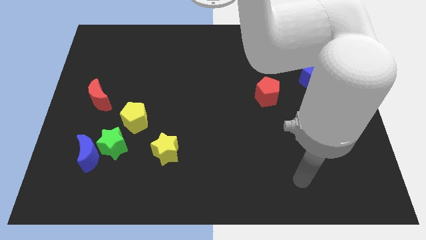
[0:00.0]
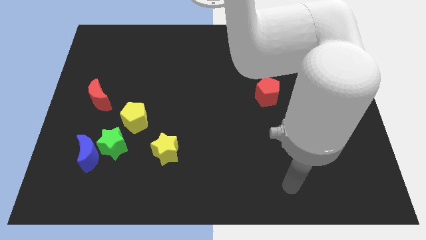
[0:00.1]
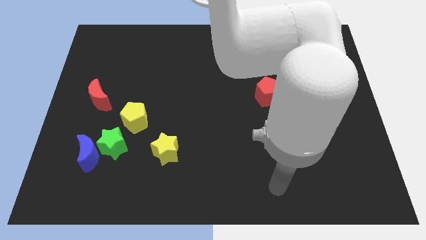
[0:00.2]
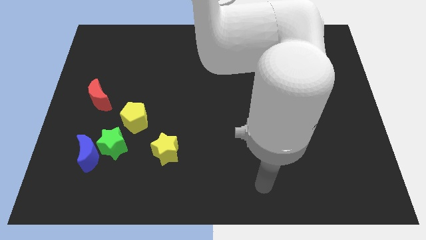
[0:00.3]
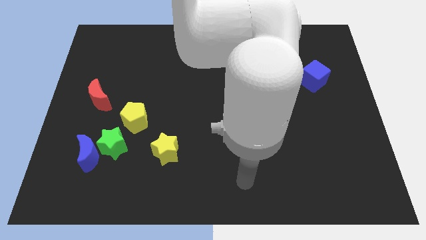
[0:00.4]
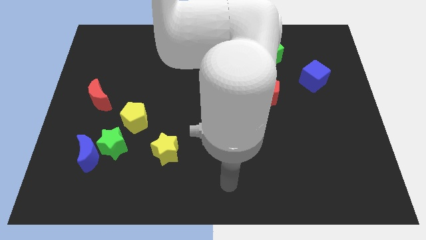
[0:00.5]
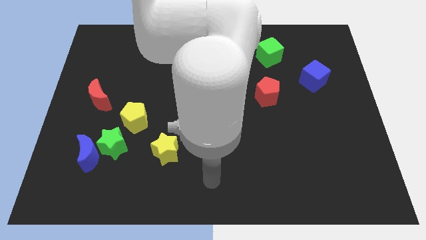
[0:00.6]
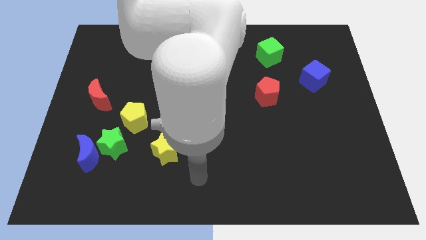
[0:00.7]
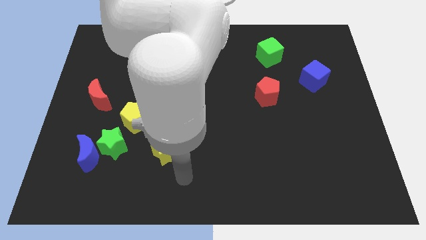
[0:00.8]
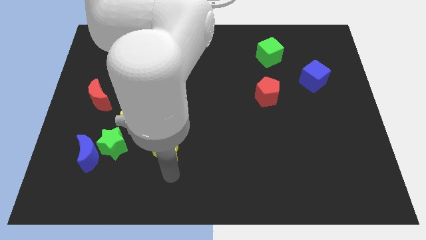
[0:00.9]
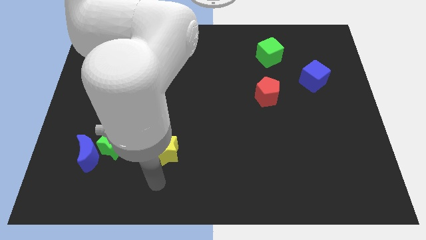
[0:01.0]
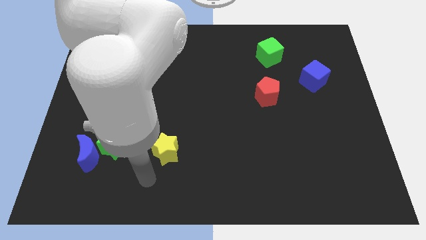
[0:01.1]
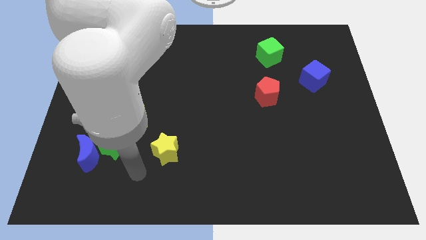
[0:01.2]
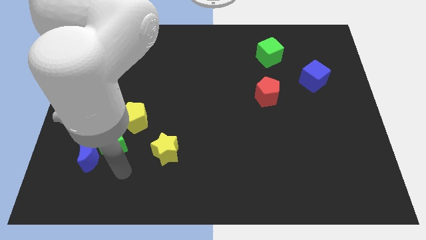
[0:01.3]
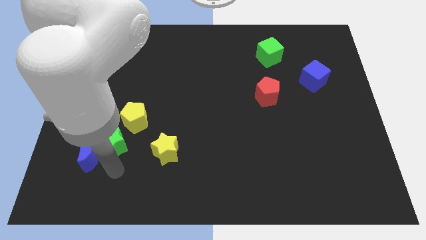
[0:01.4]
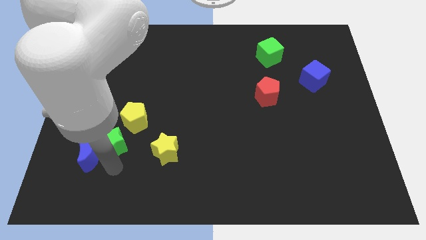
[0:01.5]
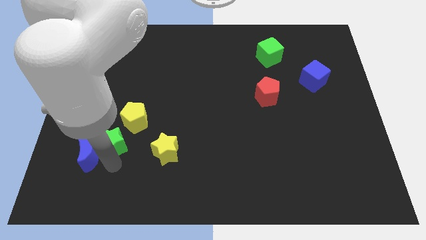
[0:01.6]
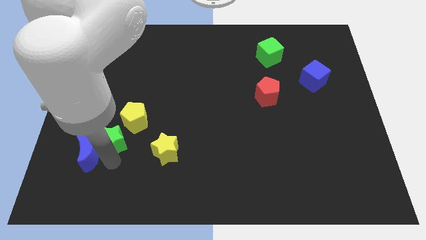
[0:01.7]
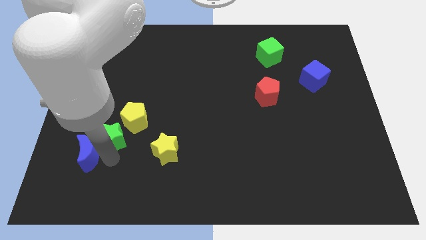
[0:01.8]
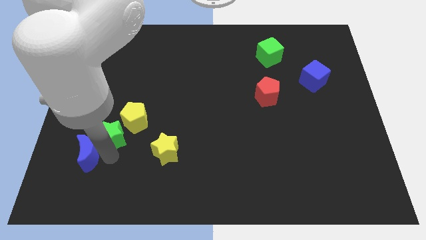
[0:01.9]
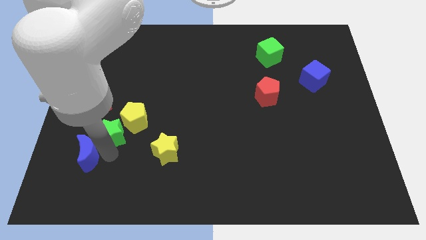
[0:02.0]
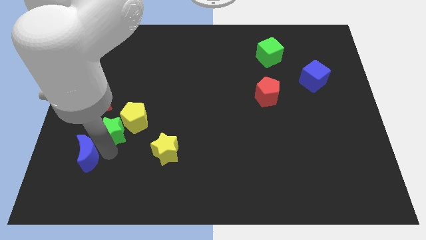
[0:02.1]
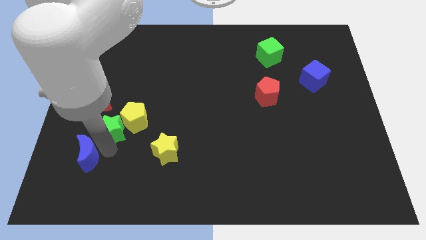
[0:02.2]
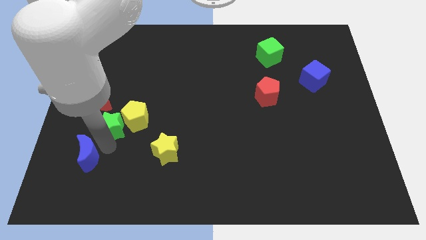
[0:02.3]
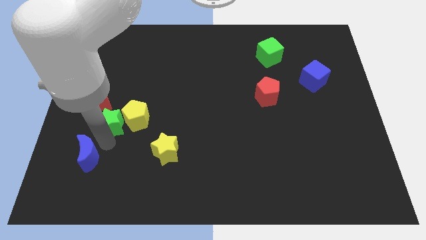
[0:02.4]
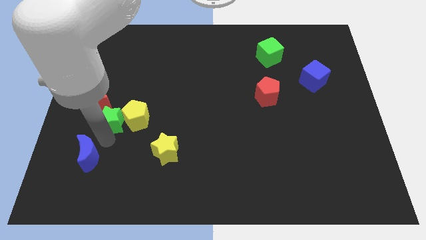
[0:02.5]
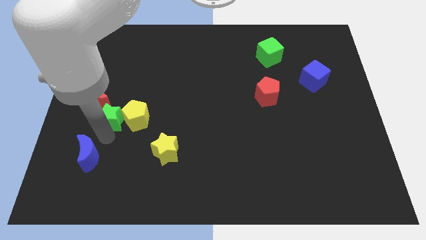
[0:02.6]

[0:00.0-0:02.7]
slightly move the green star upwards

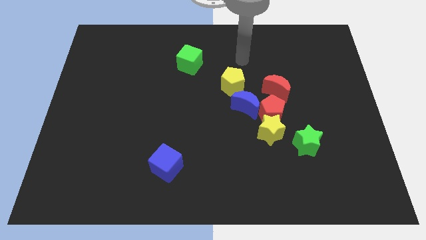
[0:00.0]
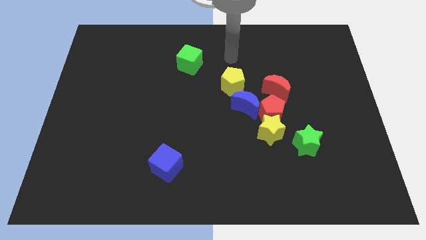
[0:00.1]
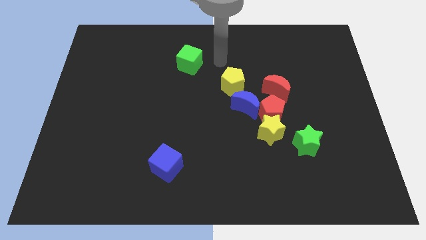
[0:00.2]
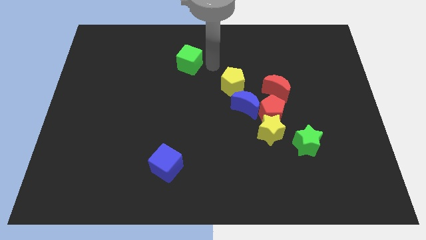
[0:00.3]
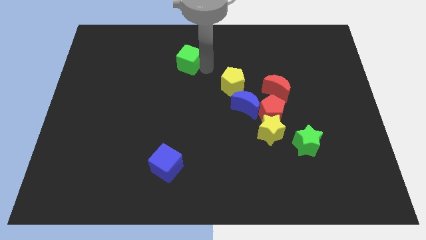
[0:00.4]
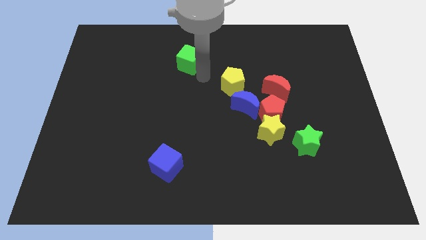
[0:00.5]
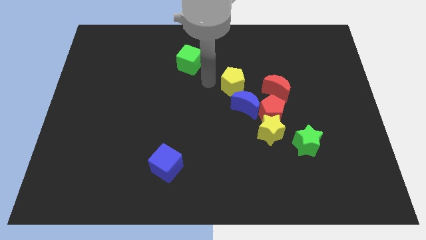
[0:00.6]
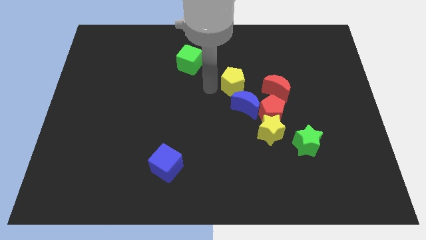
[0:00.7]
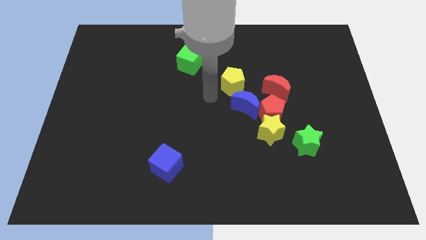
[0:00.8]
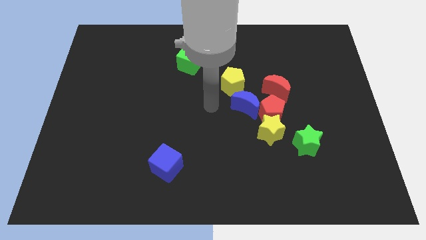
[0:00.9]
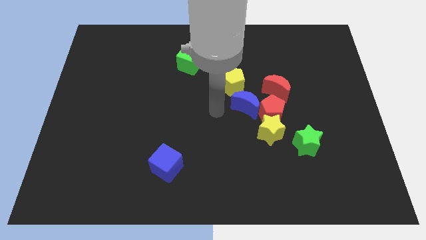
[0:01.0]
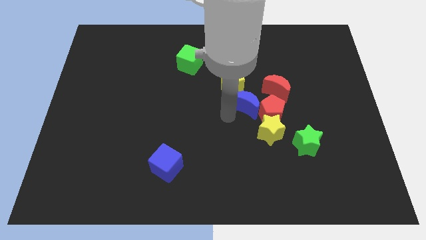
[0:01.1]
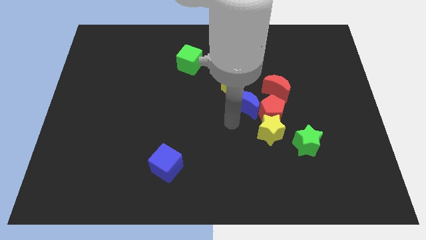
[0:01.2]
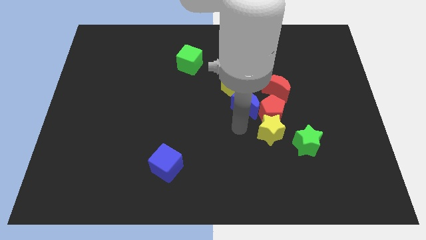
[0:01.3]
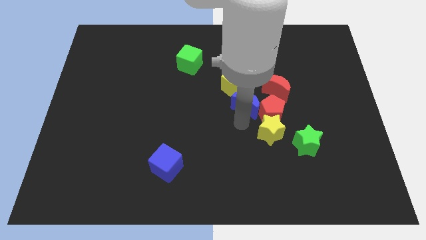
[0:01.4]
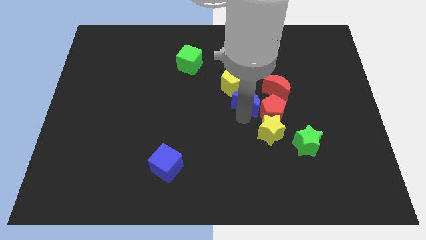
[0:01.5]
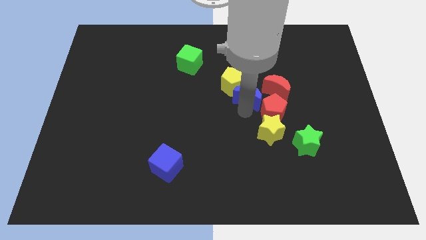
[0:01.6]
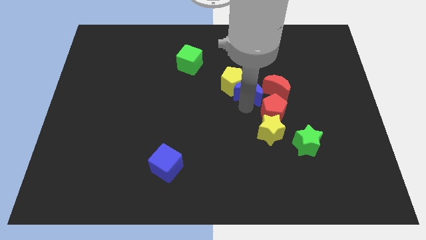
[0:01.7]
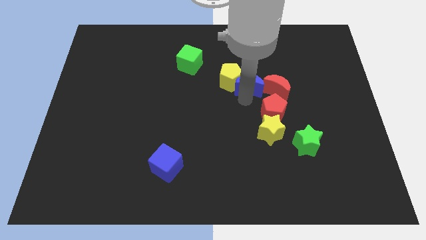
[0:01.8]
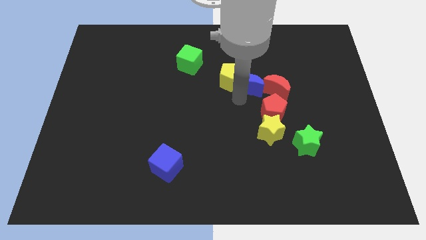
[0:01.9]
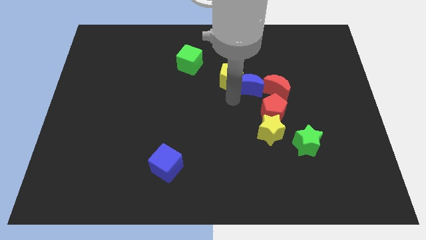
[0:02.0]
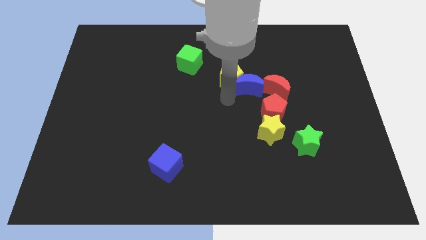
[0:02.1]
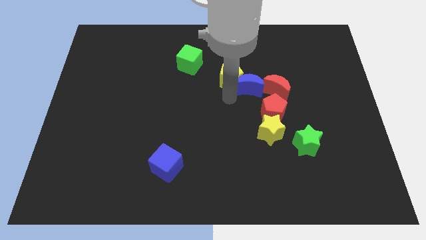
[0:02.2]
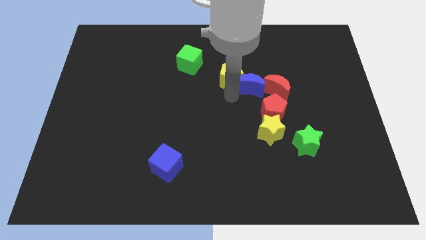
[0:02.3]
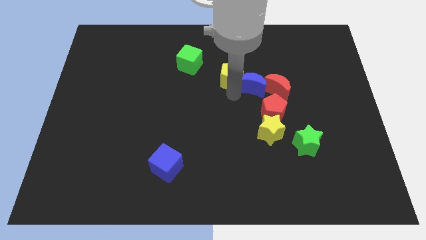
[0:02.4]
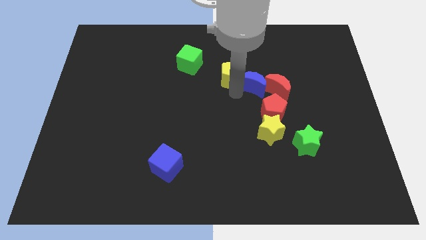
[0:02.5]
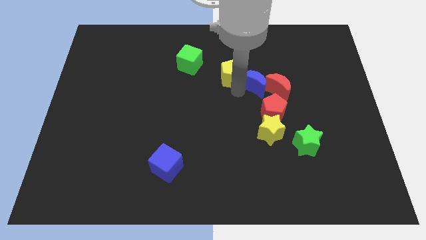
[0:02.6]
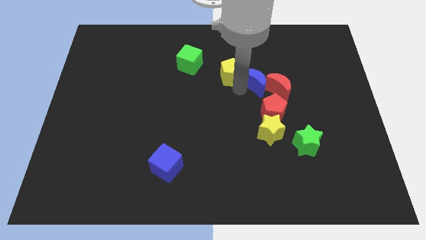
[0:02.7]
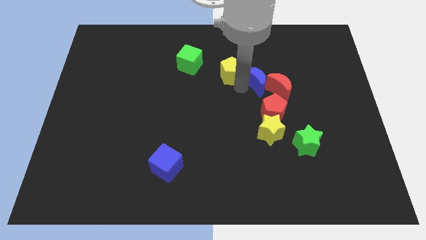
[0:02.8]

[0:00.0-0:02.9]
move the blue moon upwards and then right a little bit

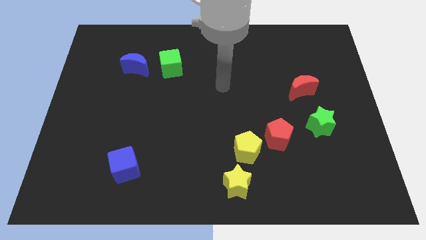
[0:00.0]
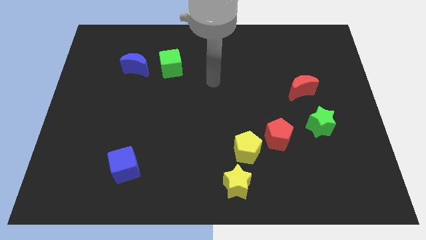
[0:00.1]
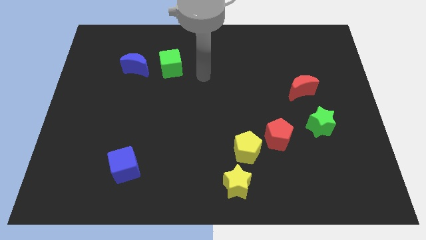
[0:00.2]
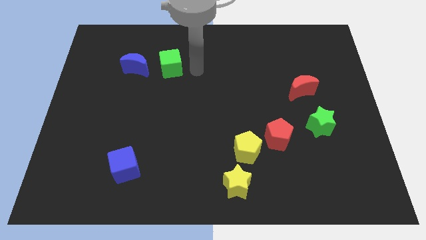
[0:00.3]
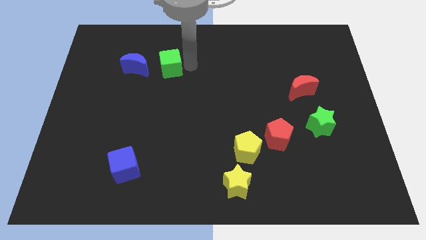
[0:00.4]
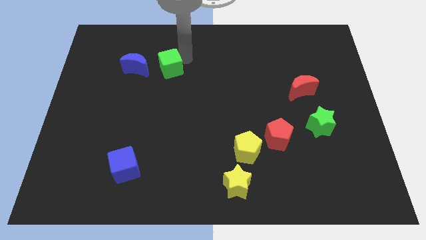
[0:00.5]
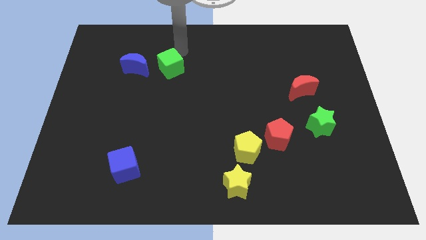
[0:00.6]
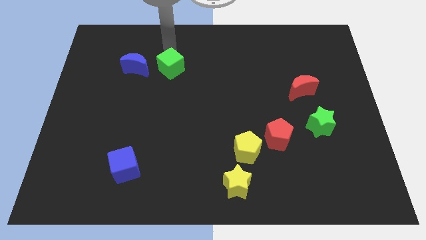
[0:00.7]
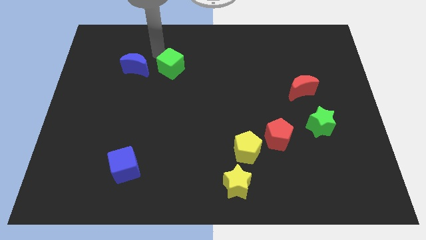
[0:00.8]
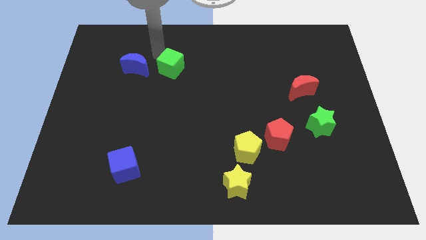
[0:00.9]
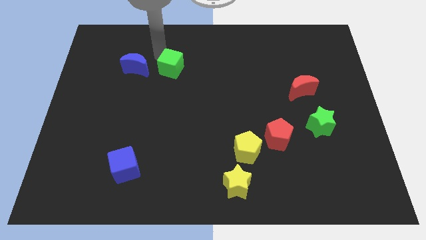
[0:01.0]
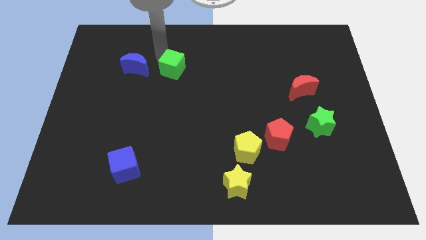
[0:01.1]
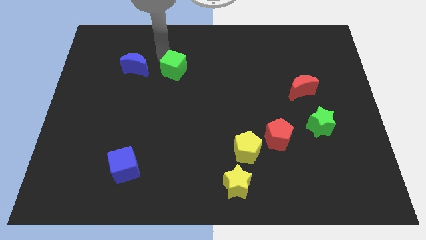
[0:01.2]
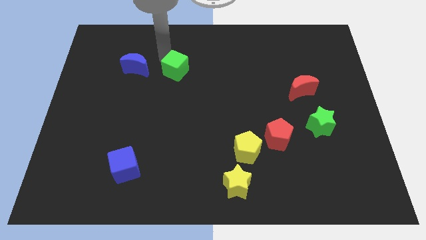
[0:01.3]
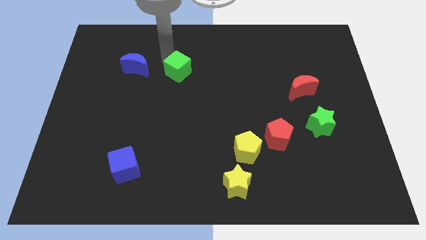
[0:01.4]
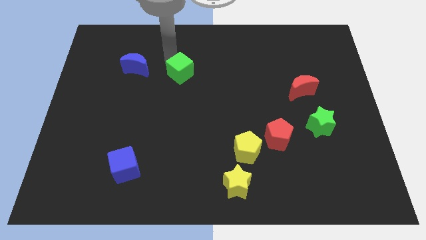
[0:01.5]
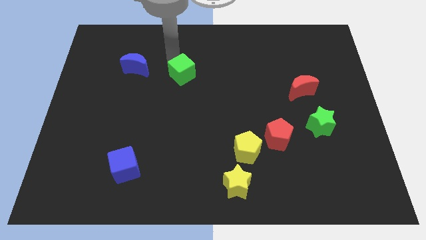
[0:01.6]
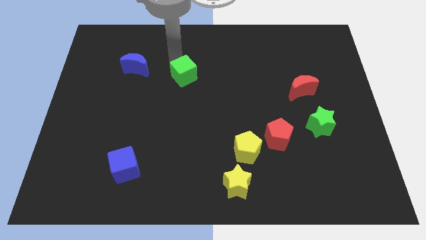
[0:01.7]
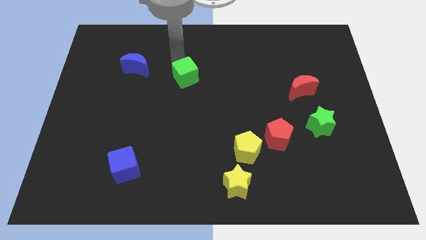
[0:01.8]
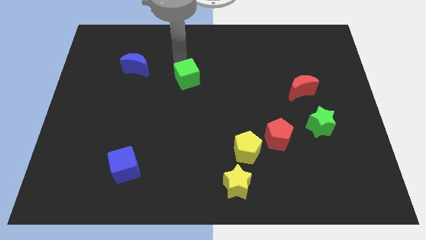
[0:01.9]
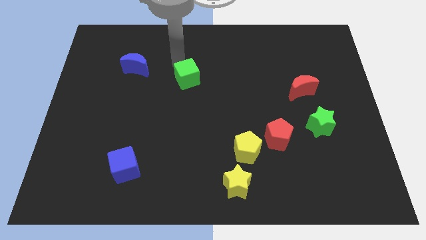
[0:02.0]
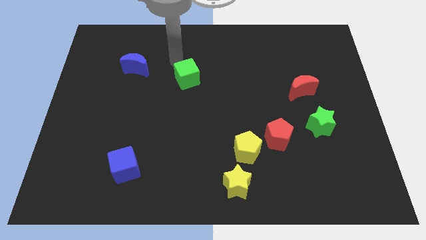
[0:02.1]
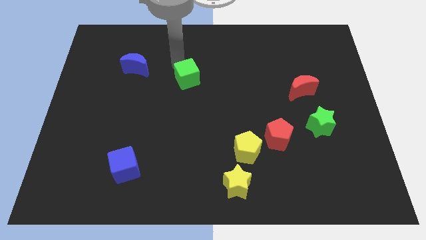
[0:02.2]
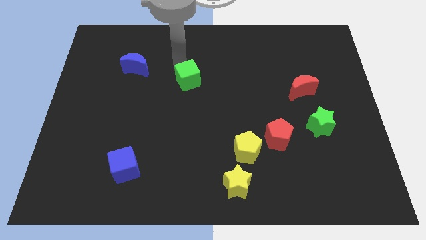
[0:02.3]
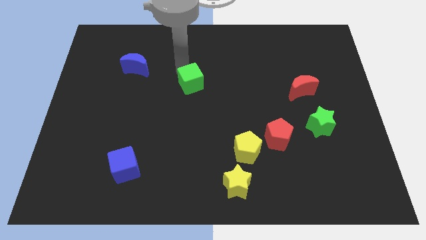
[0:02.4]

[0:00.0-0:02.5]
slightly push the green cube diagonally down and right

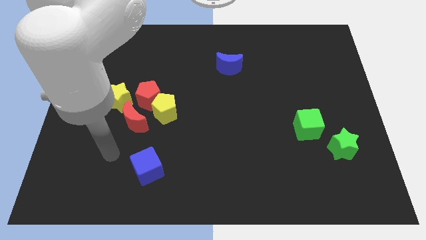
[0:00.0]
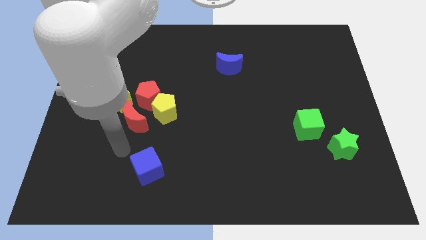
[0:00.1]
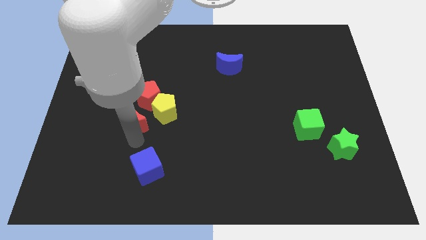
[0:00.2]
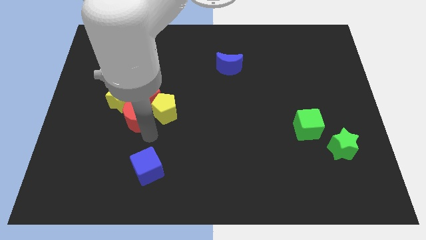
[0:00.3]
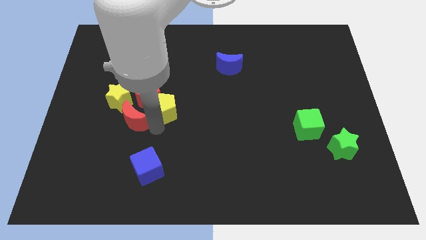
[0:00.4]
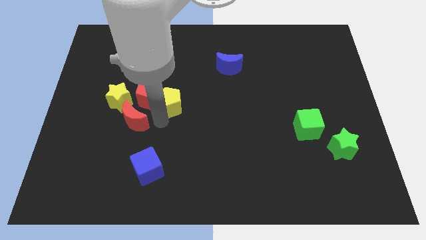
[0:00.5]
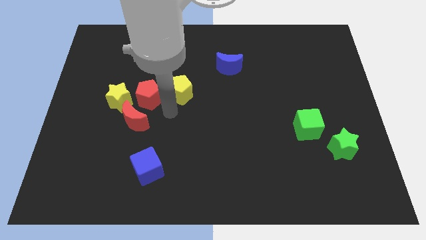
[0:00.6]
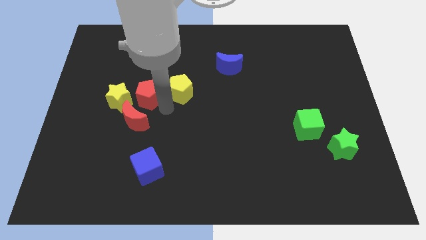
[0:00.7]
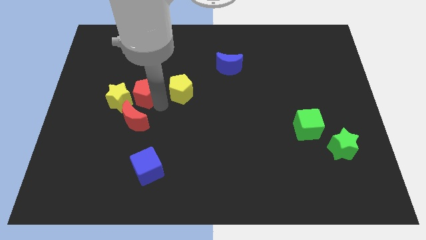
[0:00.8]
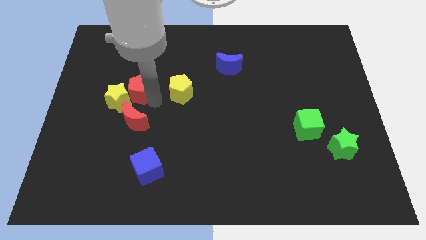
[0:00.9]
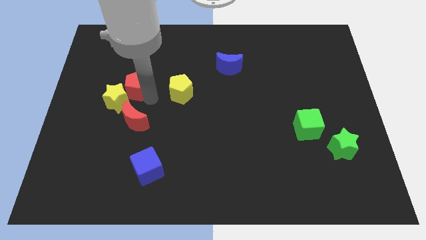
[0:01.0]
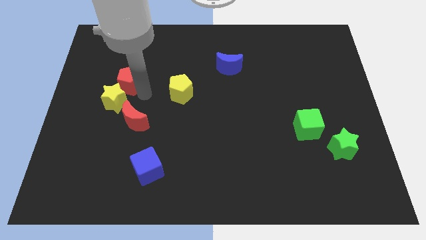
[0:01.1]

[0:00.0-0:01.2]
push the red pentagon up and to the left diagonally a little
